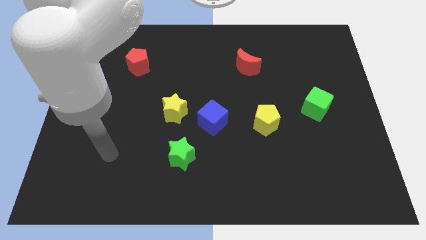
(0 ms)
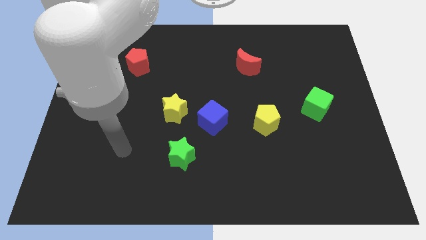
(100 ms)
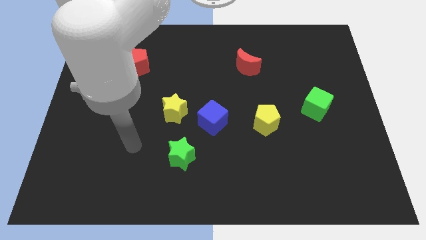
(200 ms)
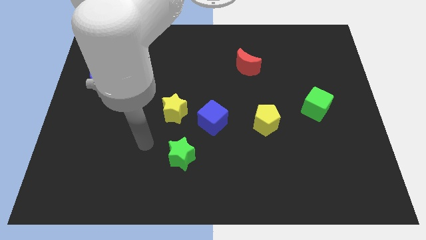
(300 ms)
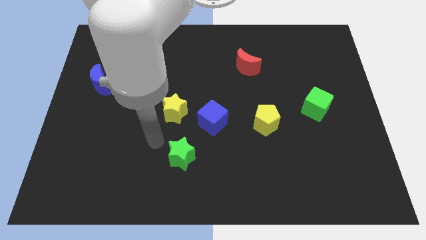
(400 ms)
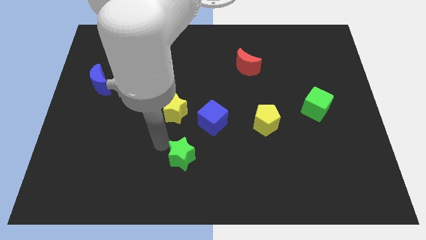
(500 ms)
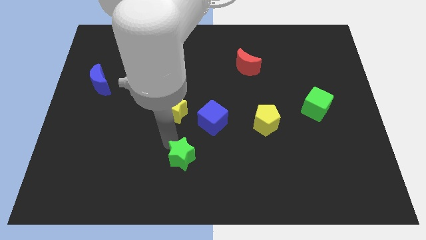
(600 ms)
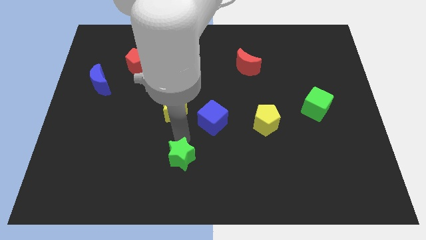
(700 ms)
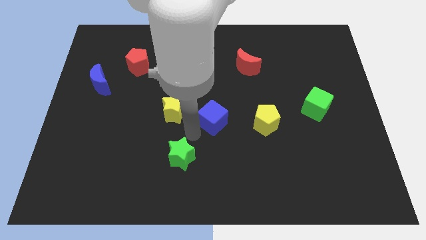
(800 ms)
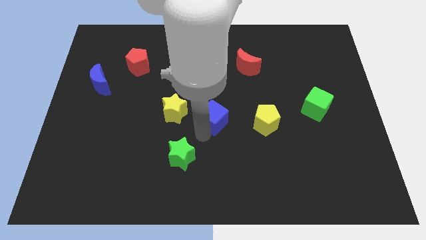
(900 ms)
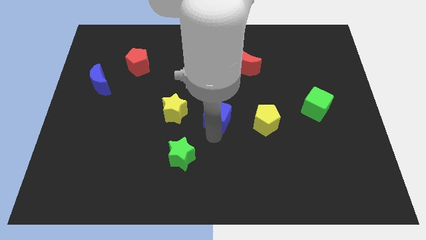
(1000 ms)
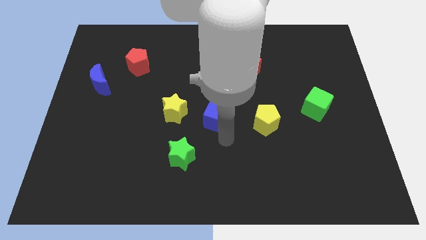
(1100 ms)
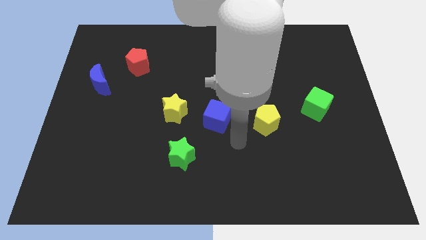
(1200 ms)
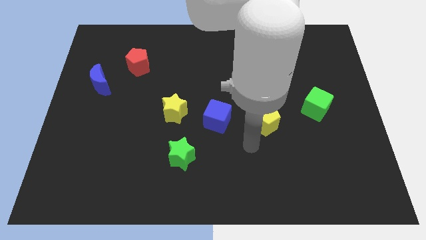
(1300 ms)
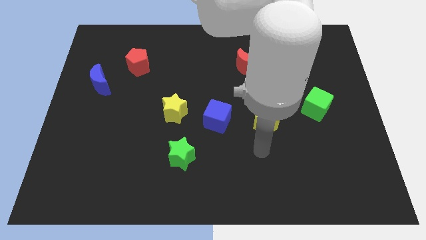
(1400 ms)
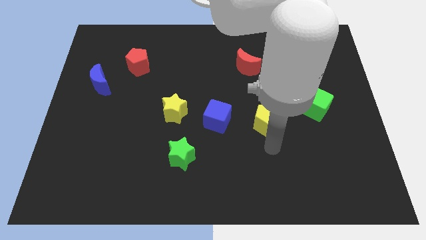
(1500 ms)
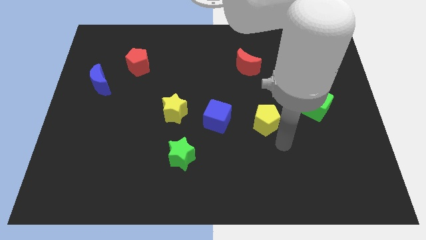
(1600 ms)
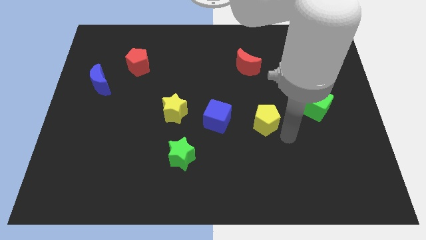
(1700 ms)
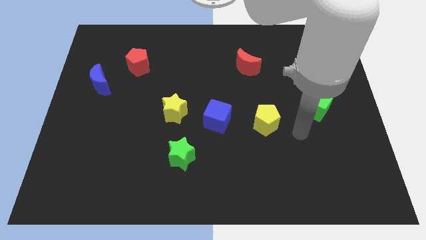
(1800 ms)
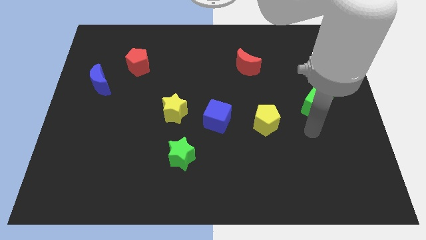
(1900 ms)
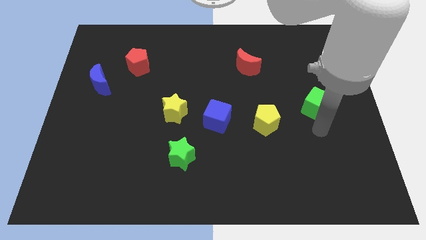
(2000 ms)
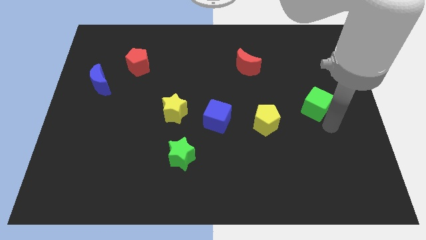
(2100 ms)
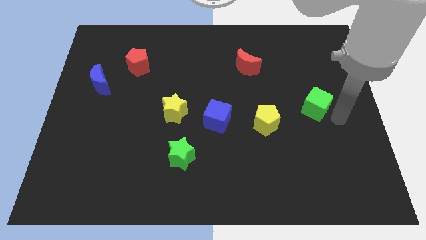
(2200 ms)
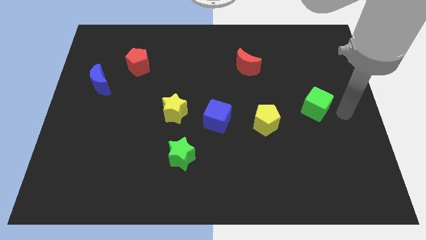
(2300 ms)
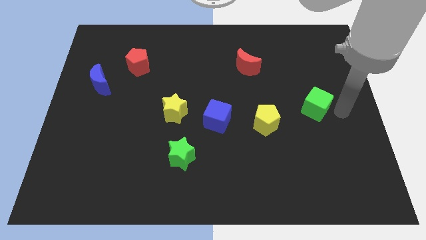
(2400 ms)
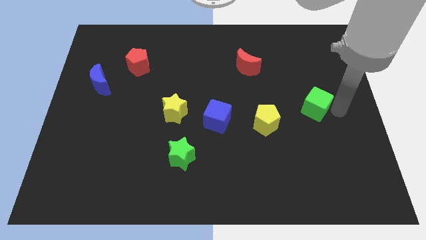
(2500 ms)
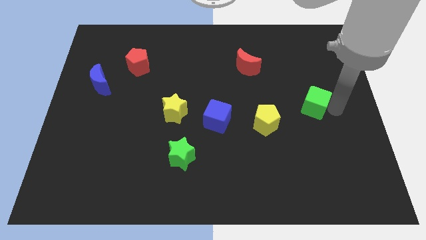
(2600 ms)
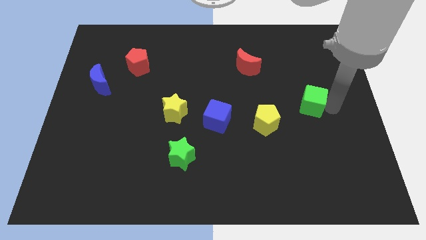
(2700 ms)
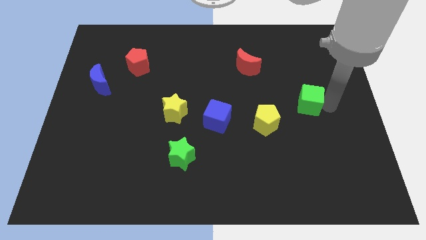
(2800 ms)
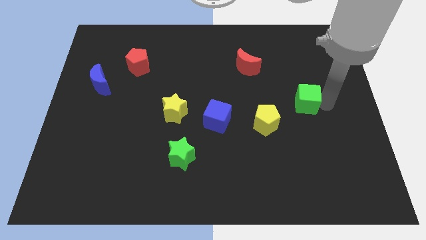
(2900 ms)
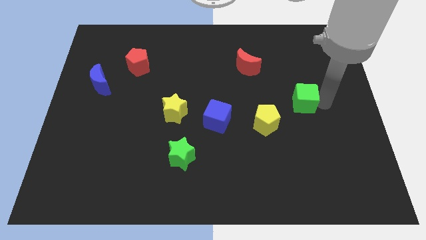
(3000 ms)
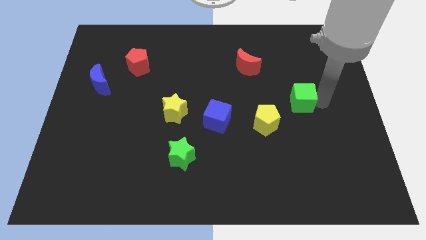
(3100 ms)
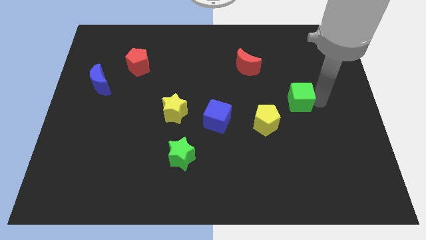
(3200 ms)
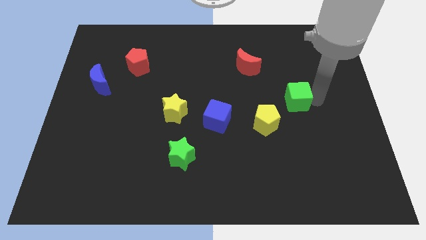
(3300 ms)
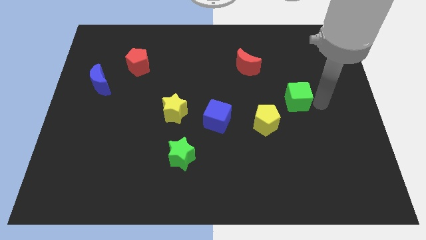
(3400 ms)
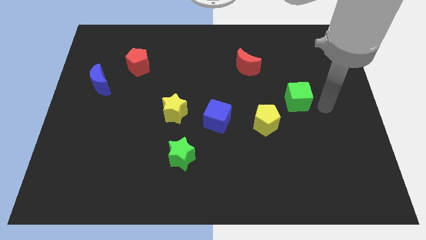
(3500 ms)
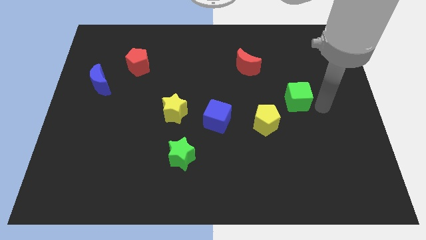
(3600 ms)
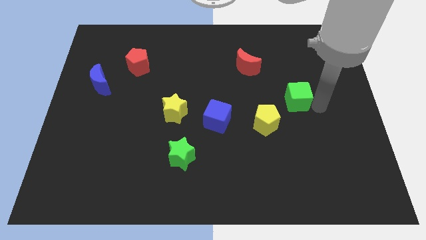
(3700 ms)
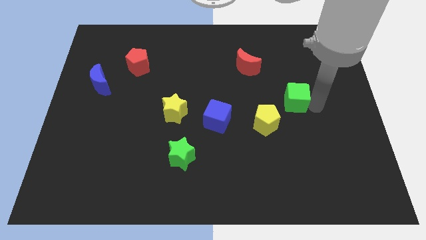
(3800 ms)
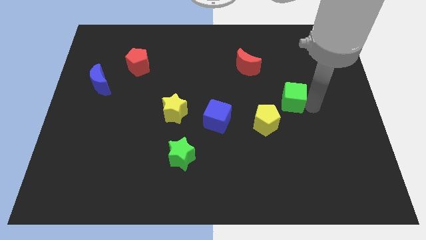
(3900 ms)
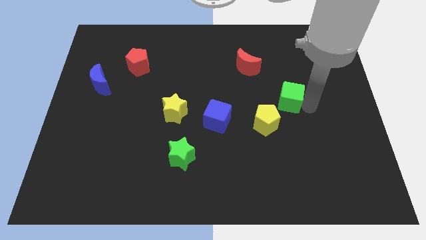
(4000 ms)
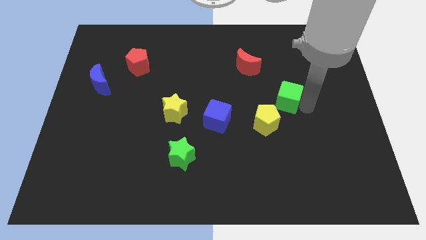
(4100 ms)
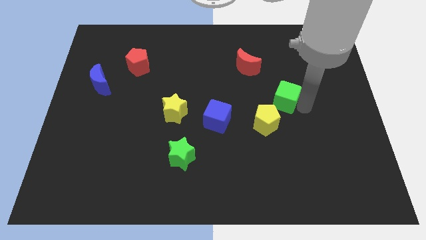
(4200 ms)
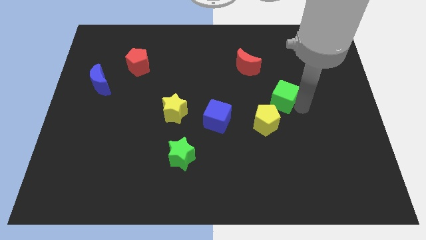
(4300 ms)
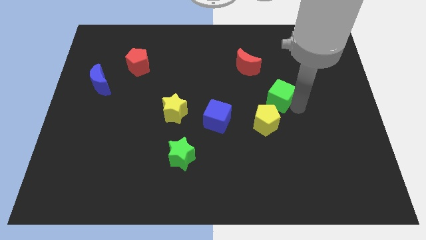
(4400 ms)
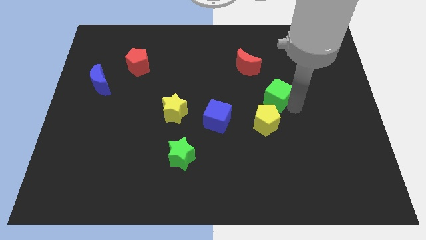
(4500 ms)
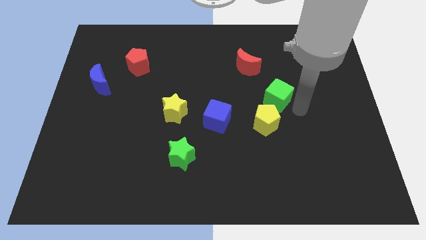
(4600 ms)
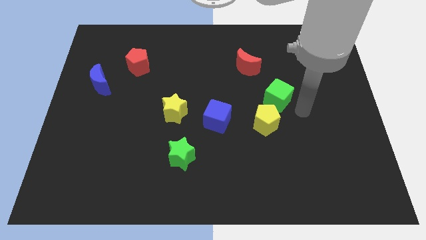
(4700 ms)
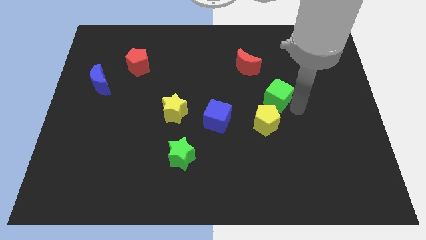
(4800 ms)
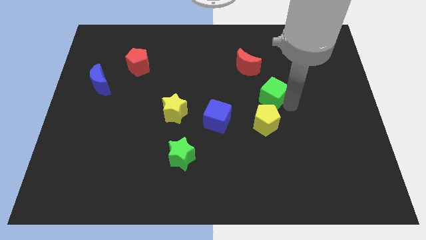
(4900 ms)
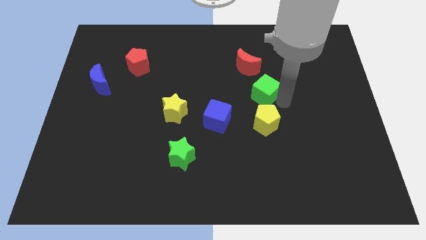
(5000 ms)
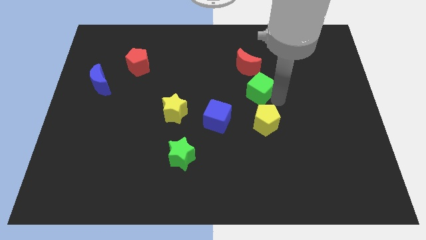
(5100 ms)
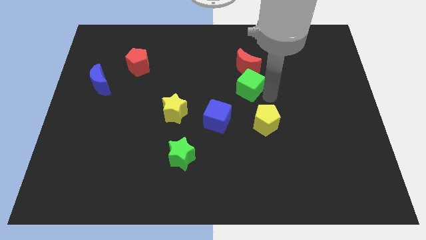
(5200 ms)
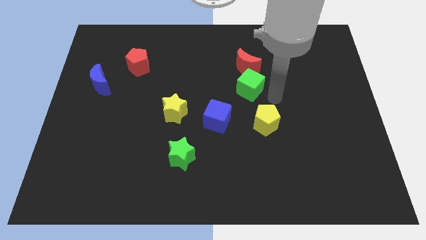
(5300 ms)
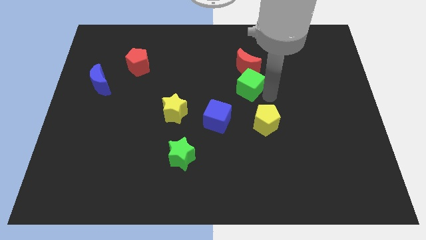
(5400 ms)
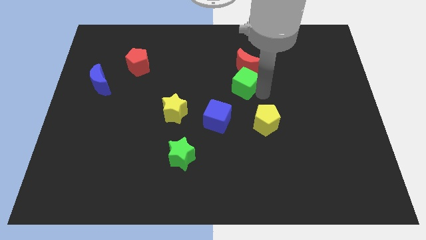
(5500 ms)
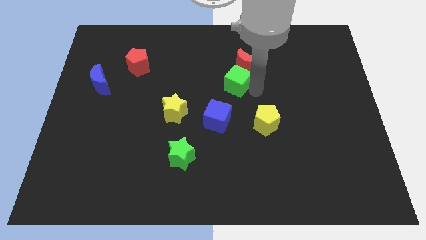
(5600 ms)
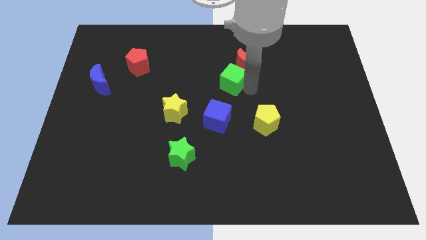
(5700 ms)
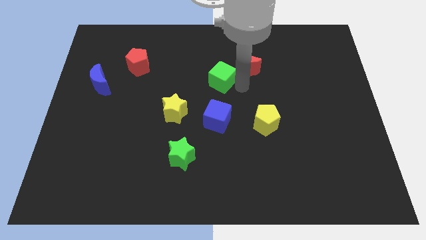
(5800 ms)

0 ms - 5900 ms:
push the green cube to the left side of the red moon

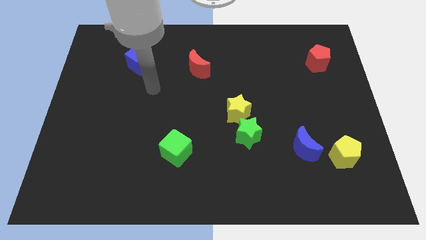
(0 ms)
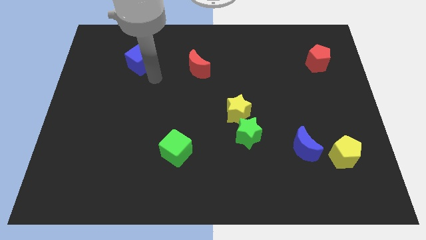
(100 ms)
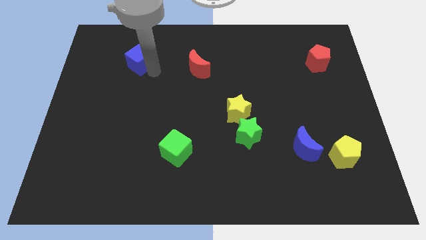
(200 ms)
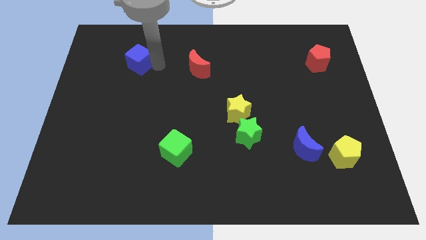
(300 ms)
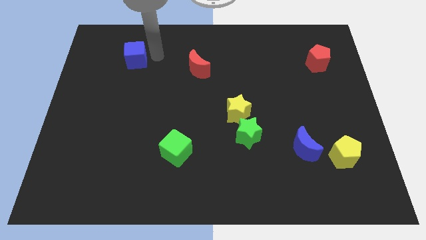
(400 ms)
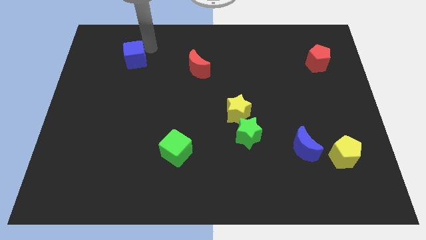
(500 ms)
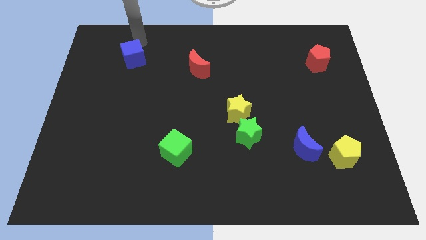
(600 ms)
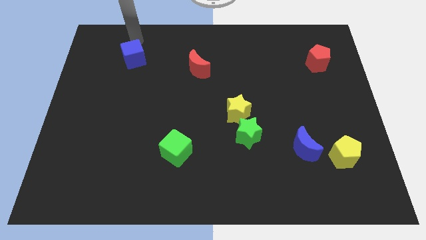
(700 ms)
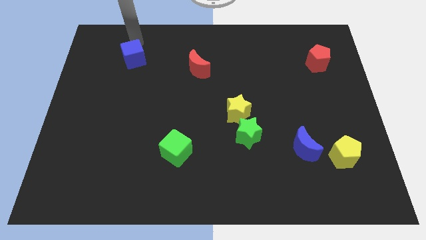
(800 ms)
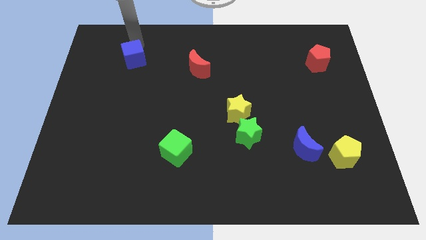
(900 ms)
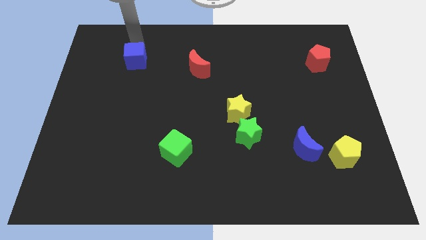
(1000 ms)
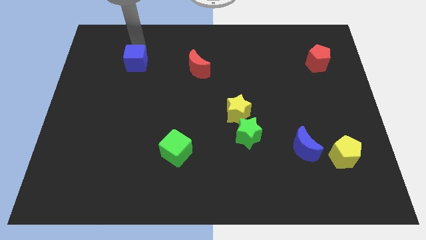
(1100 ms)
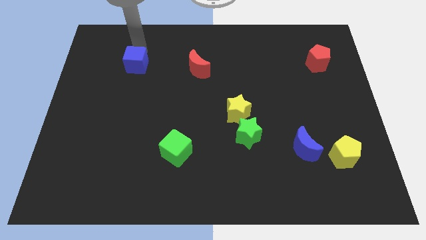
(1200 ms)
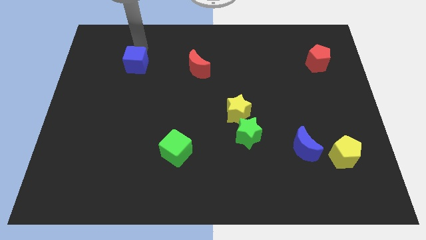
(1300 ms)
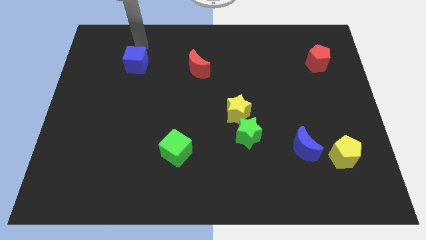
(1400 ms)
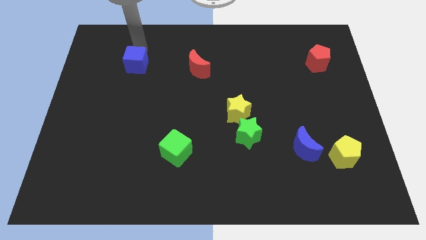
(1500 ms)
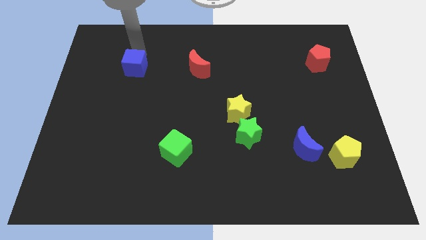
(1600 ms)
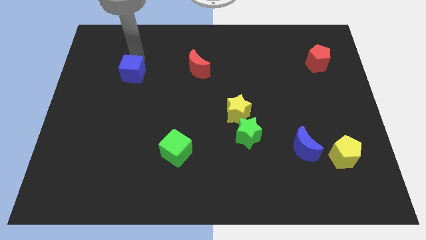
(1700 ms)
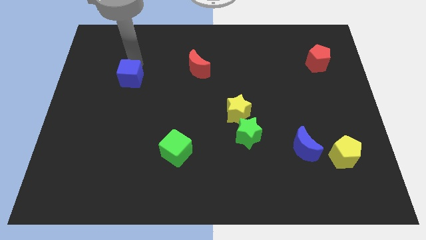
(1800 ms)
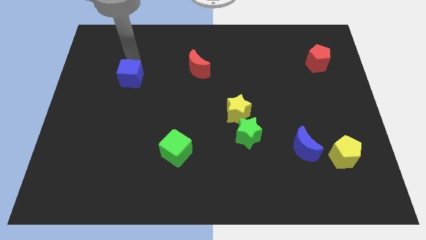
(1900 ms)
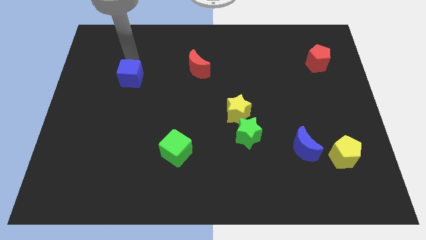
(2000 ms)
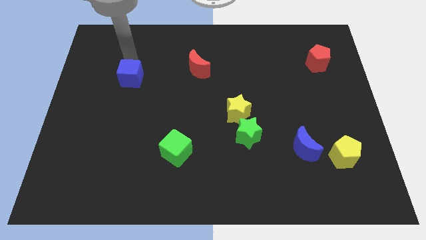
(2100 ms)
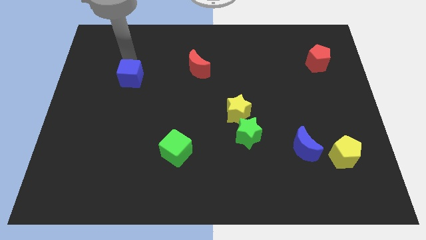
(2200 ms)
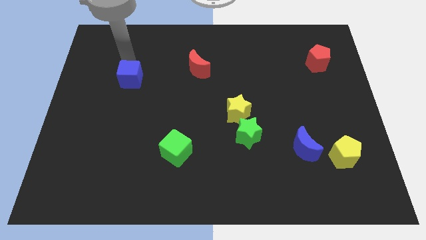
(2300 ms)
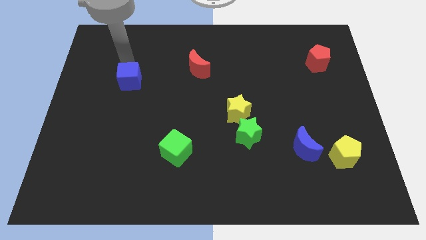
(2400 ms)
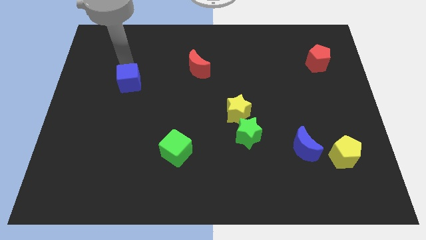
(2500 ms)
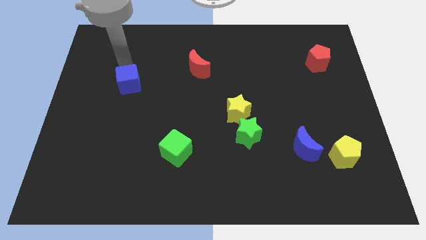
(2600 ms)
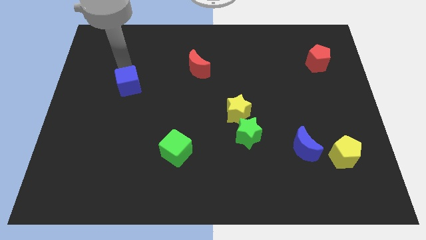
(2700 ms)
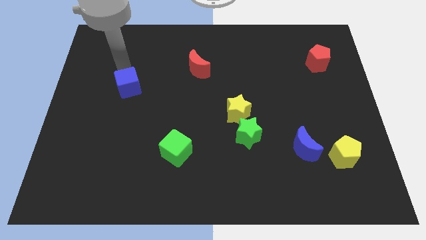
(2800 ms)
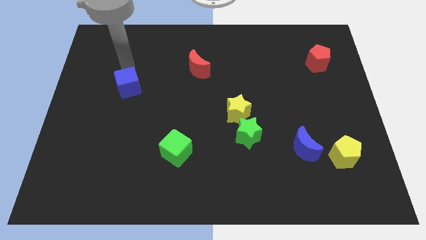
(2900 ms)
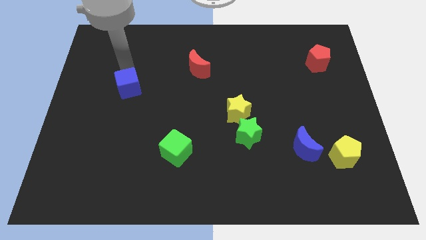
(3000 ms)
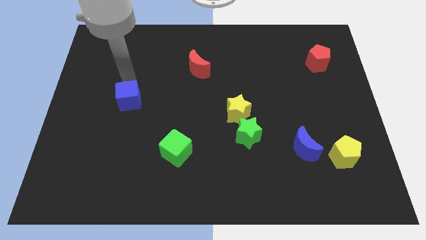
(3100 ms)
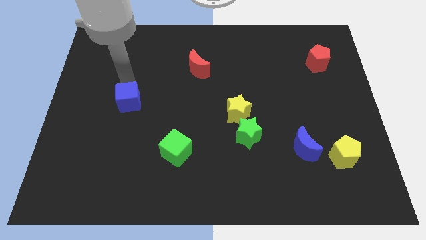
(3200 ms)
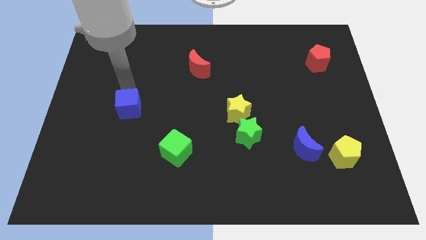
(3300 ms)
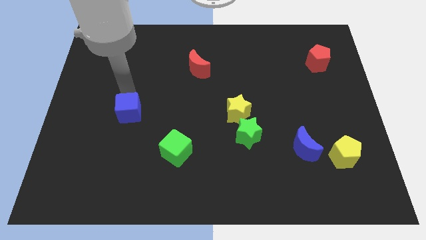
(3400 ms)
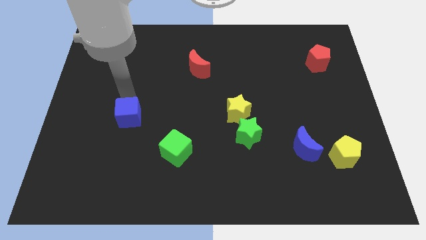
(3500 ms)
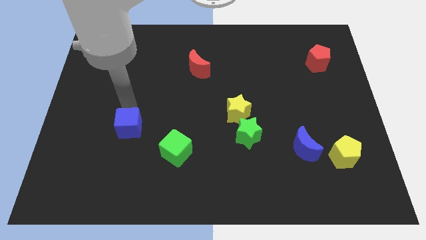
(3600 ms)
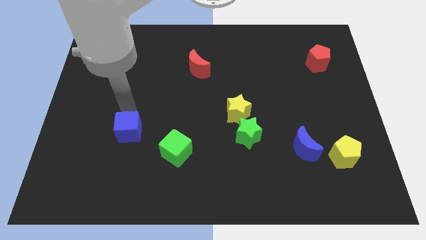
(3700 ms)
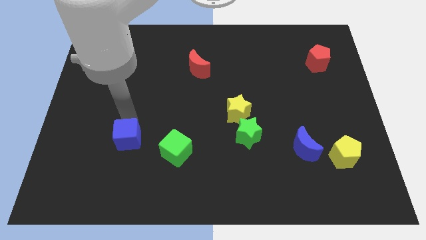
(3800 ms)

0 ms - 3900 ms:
move the blue cube just left of the green cube
